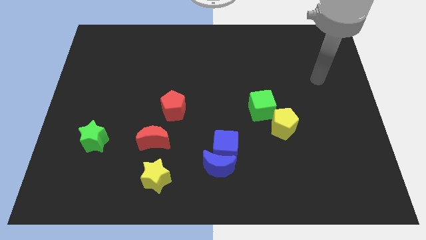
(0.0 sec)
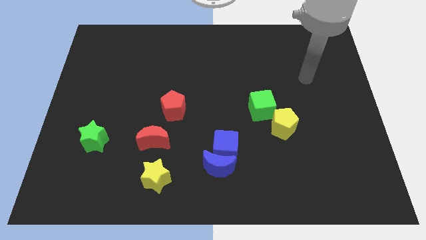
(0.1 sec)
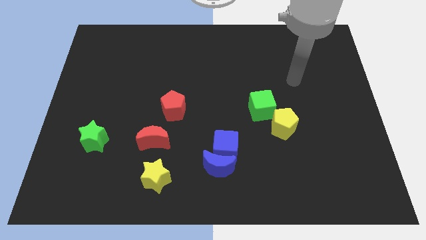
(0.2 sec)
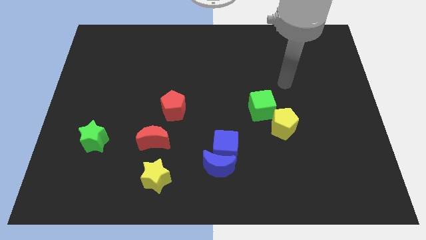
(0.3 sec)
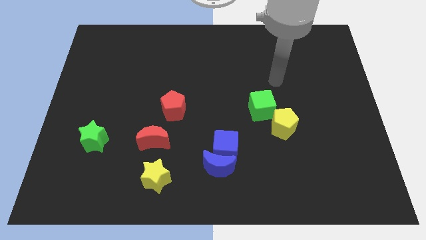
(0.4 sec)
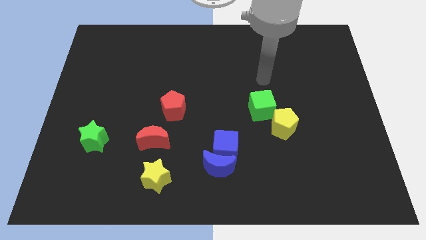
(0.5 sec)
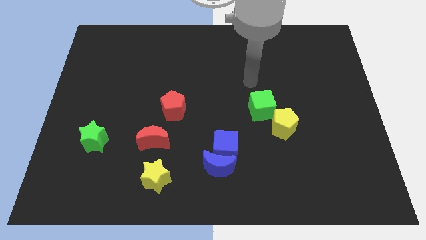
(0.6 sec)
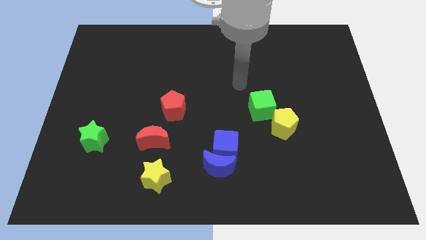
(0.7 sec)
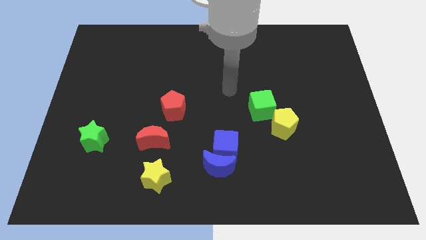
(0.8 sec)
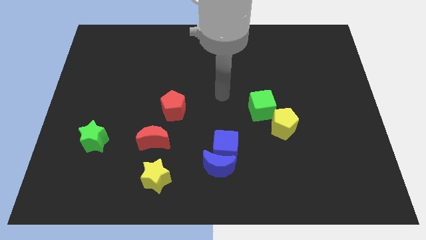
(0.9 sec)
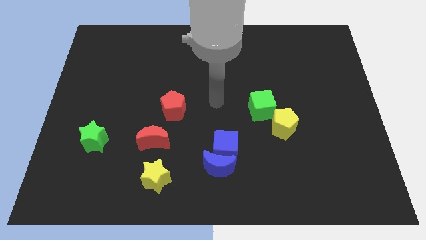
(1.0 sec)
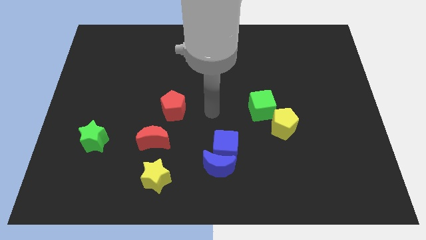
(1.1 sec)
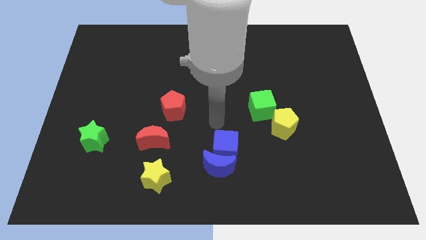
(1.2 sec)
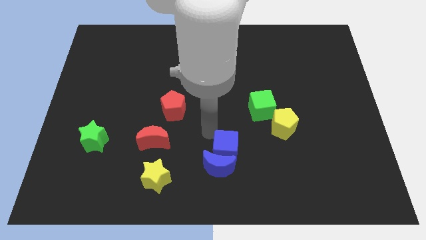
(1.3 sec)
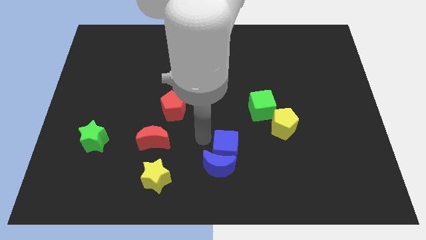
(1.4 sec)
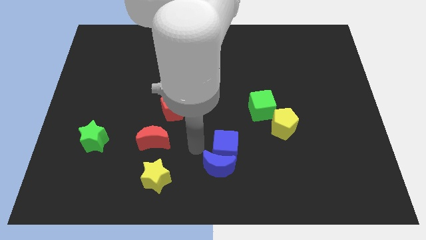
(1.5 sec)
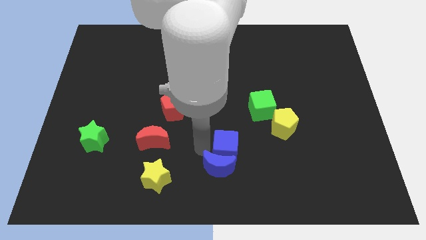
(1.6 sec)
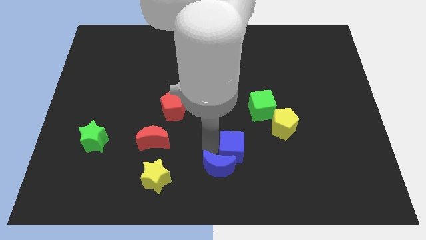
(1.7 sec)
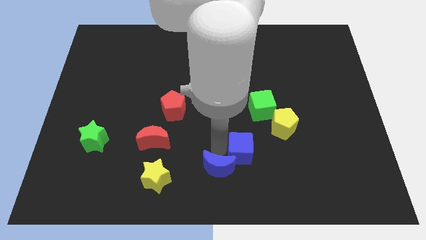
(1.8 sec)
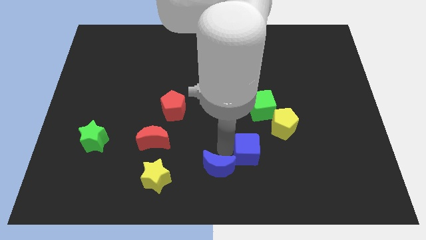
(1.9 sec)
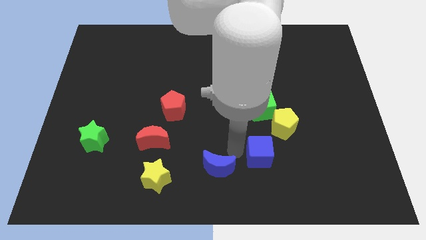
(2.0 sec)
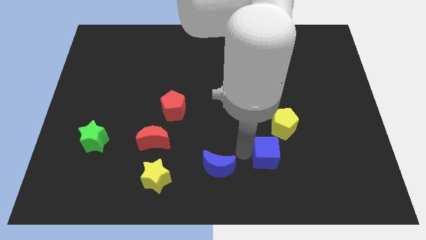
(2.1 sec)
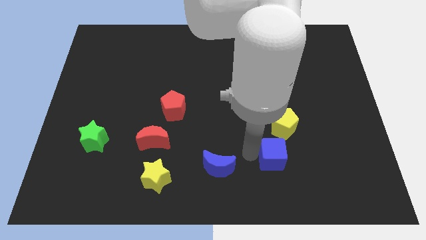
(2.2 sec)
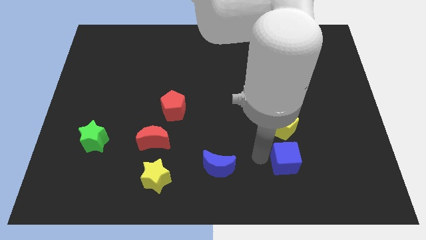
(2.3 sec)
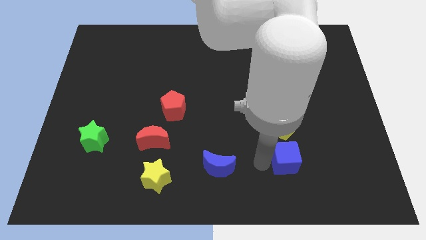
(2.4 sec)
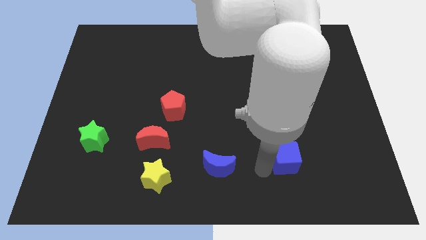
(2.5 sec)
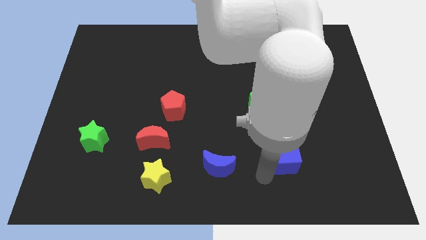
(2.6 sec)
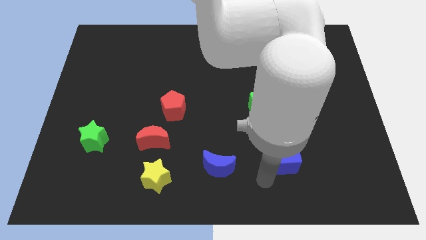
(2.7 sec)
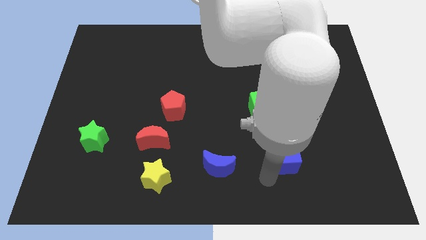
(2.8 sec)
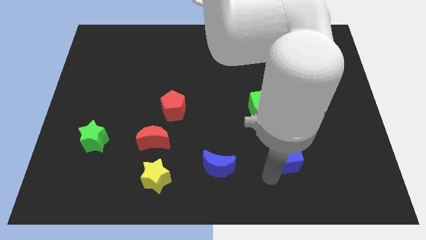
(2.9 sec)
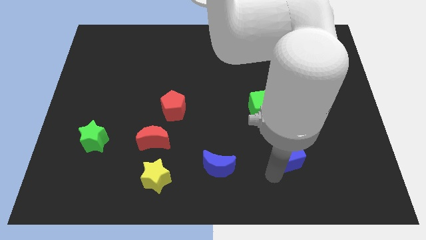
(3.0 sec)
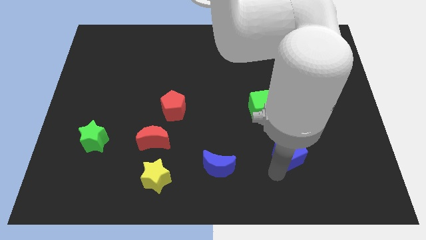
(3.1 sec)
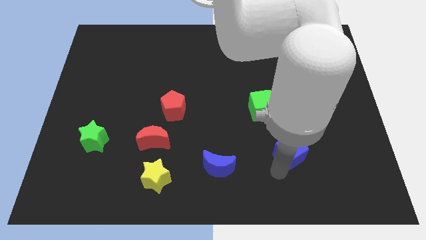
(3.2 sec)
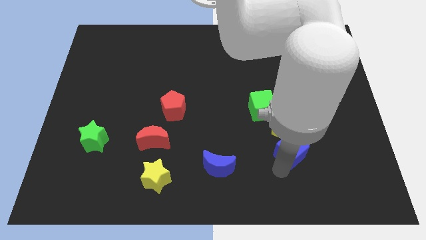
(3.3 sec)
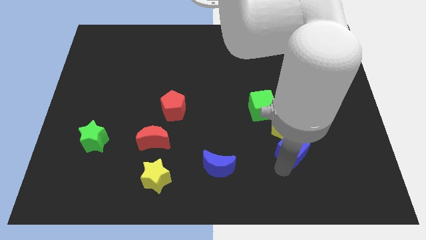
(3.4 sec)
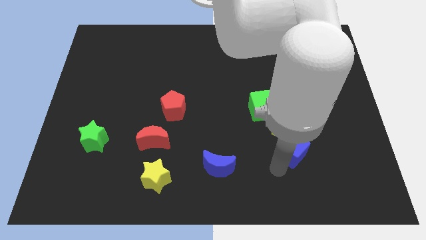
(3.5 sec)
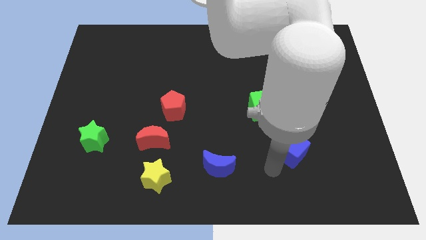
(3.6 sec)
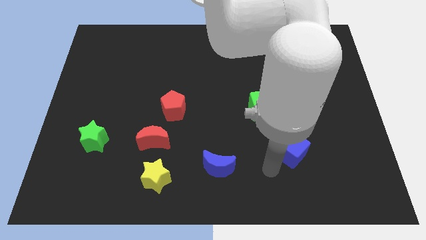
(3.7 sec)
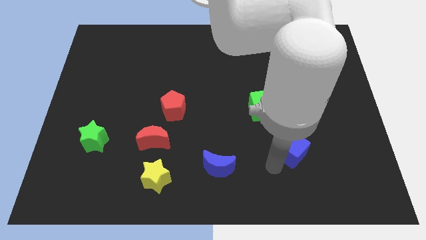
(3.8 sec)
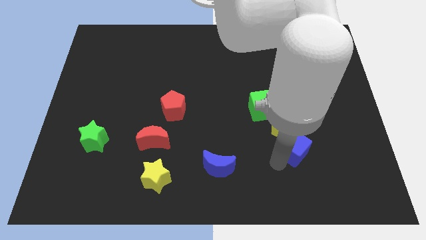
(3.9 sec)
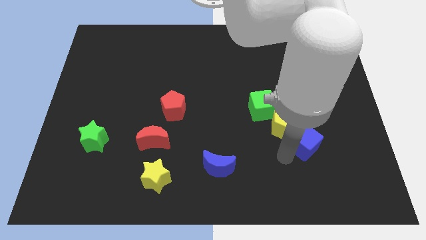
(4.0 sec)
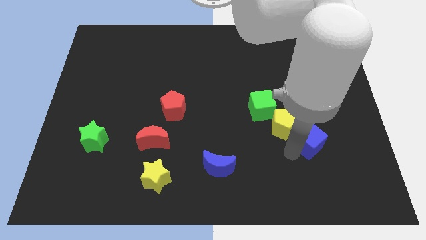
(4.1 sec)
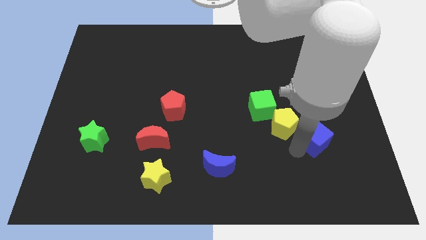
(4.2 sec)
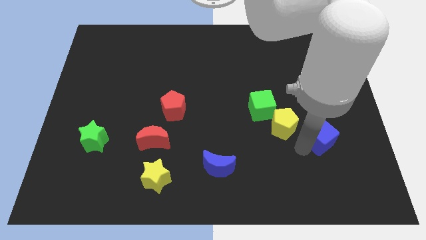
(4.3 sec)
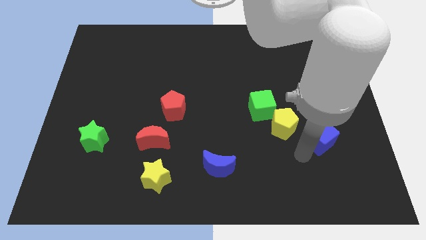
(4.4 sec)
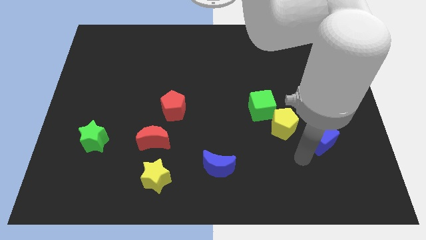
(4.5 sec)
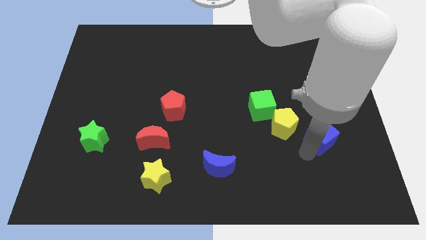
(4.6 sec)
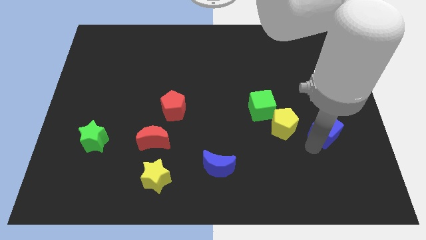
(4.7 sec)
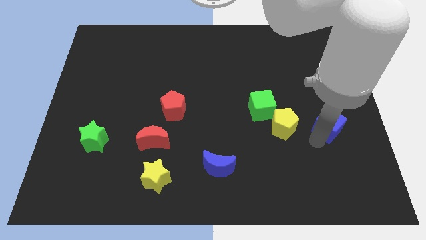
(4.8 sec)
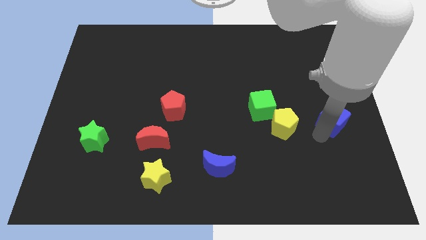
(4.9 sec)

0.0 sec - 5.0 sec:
put the blue cube to the center right

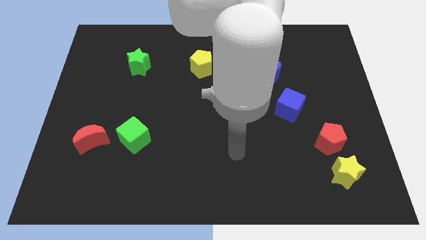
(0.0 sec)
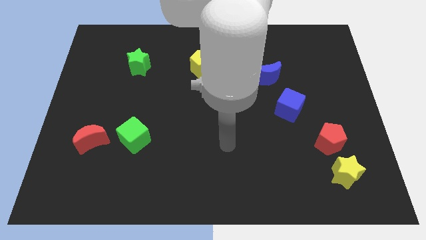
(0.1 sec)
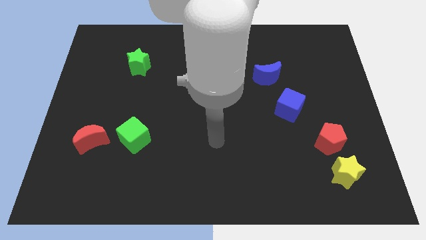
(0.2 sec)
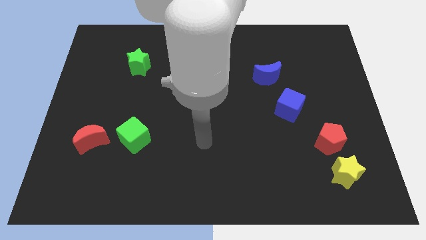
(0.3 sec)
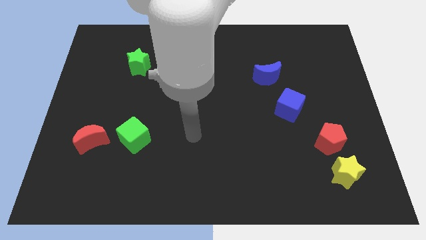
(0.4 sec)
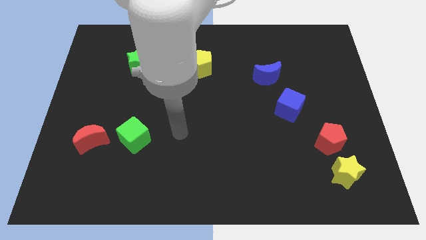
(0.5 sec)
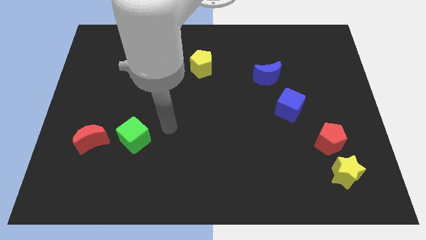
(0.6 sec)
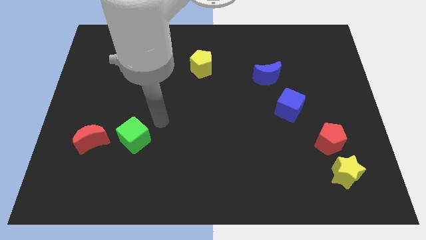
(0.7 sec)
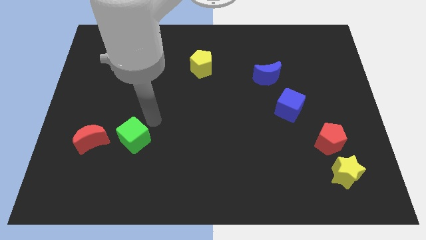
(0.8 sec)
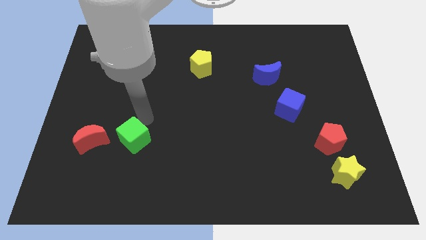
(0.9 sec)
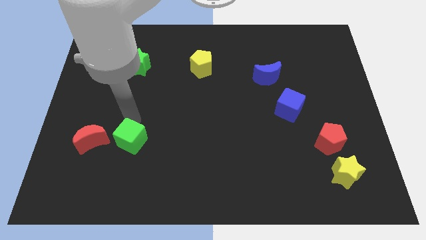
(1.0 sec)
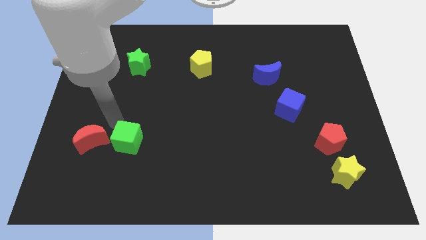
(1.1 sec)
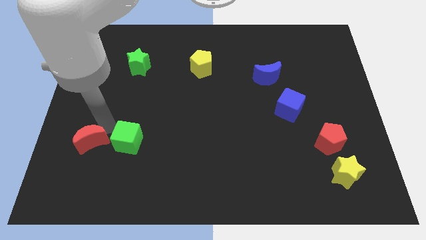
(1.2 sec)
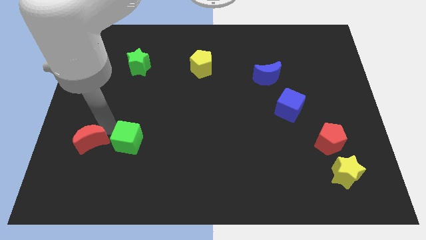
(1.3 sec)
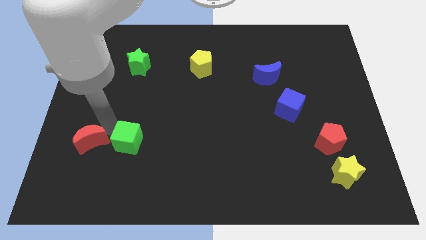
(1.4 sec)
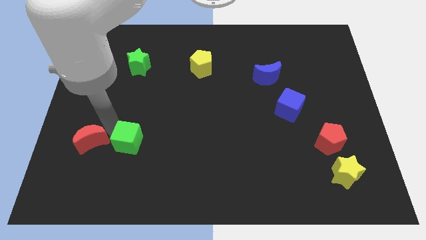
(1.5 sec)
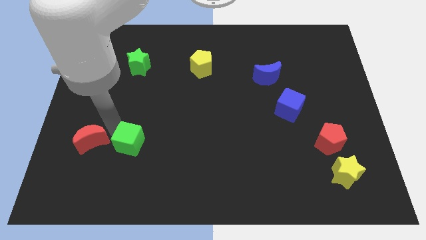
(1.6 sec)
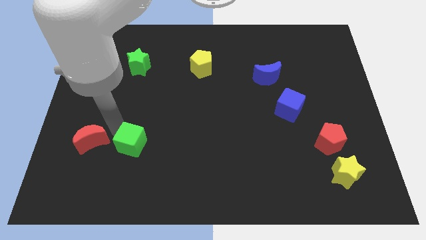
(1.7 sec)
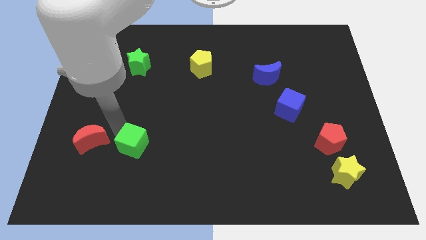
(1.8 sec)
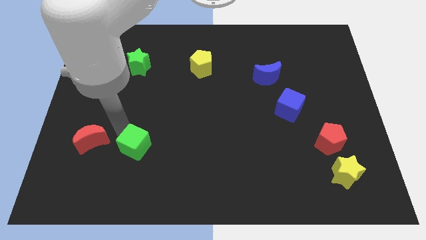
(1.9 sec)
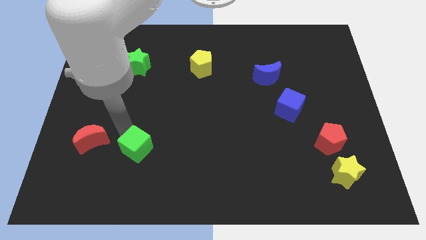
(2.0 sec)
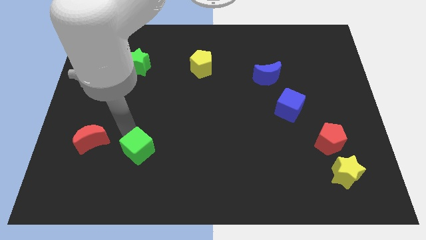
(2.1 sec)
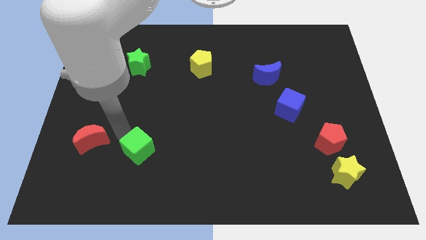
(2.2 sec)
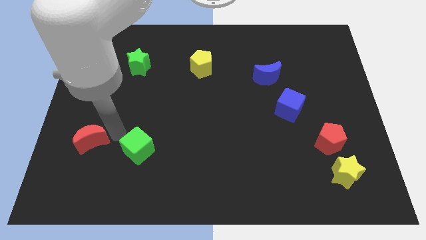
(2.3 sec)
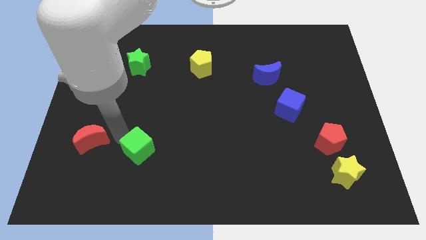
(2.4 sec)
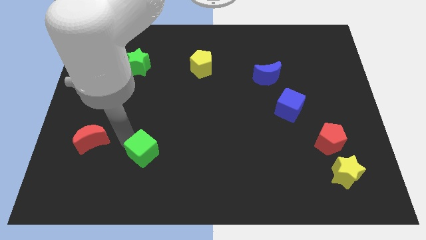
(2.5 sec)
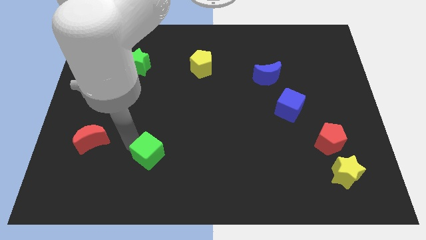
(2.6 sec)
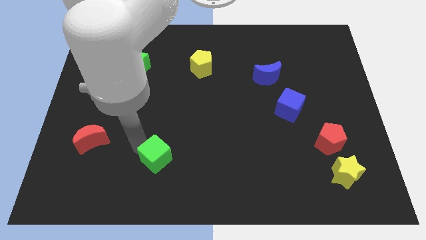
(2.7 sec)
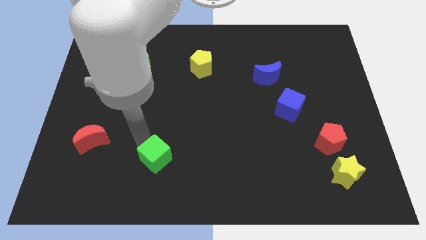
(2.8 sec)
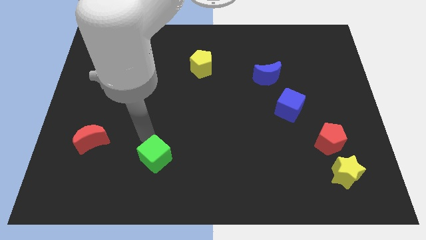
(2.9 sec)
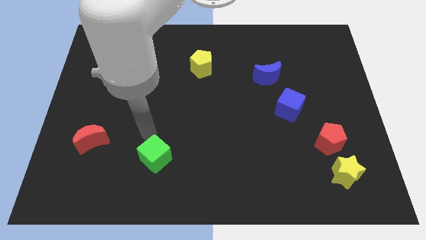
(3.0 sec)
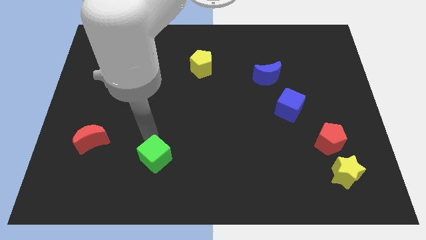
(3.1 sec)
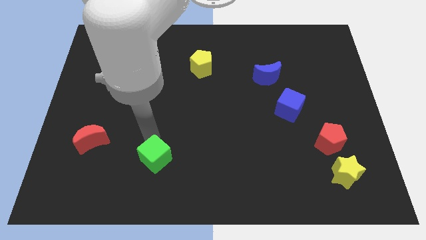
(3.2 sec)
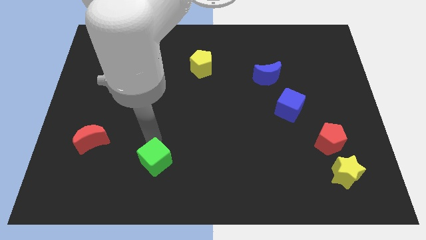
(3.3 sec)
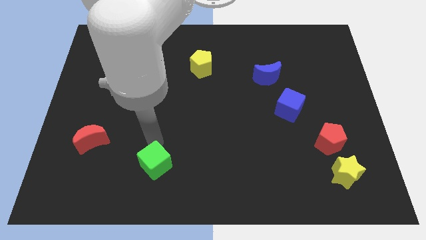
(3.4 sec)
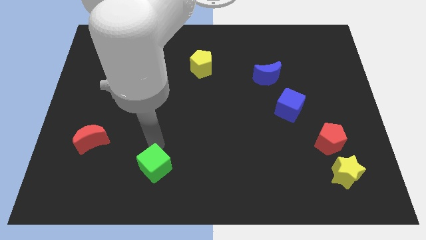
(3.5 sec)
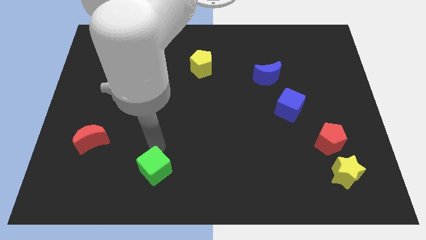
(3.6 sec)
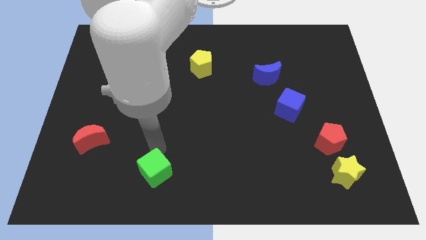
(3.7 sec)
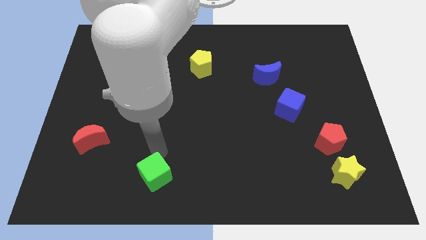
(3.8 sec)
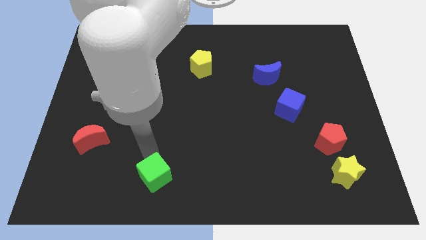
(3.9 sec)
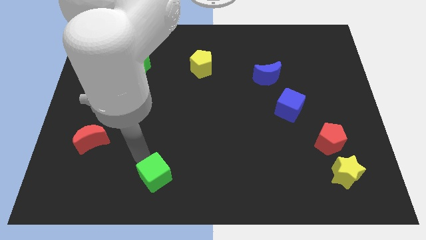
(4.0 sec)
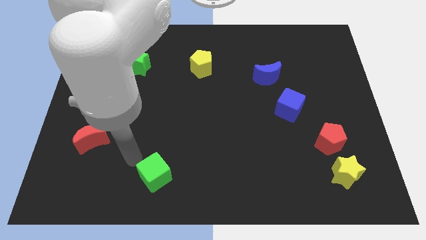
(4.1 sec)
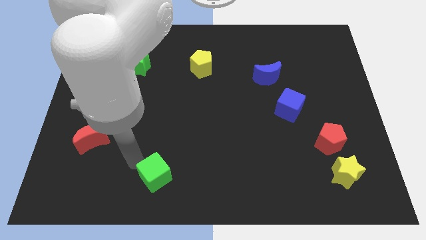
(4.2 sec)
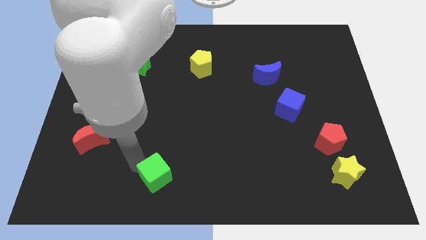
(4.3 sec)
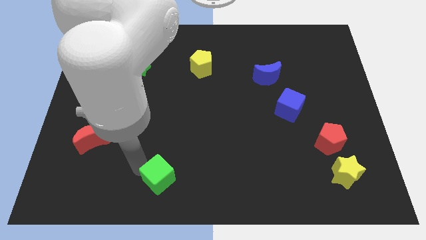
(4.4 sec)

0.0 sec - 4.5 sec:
move the green cube to the bottom side
